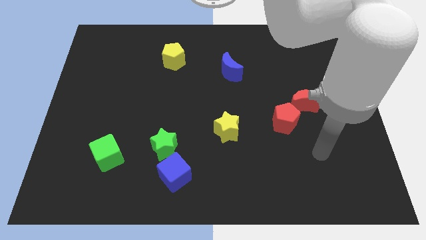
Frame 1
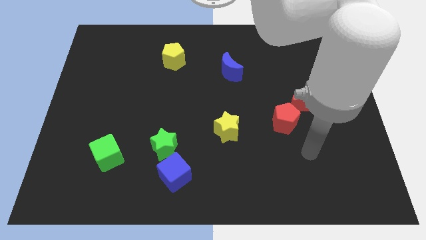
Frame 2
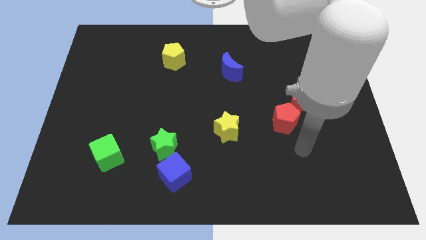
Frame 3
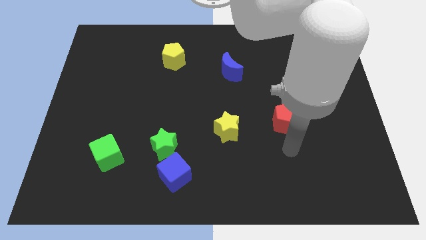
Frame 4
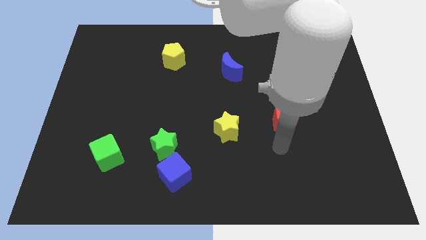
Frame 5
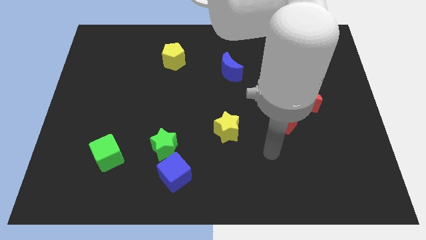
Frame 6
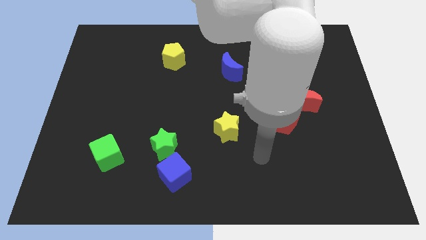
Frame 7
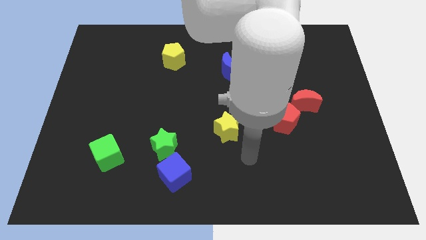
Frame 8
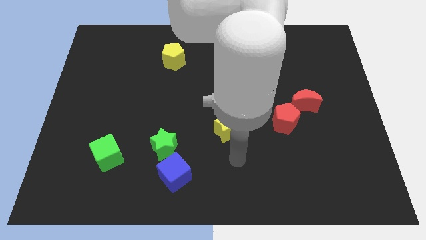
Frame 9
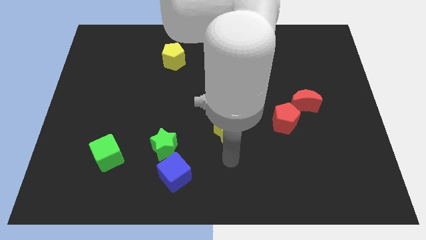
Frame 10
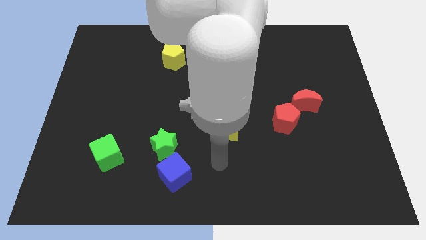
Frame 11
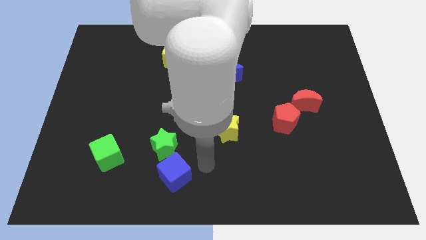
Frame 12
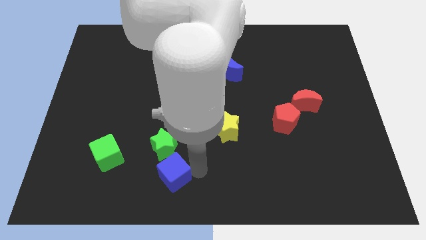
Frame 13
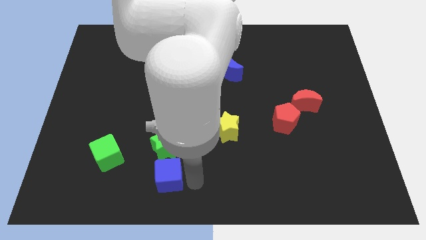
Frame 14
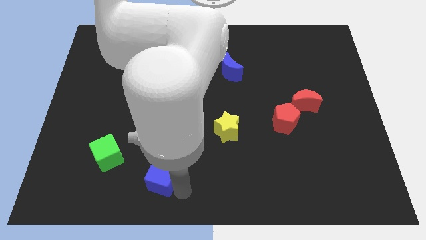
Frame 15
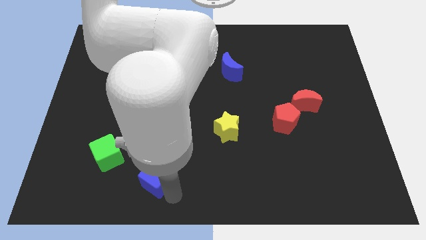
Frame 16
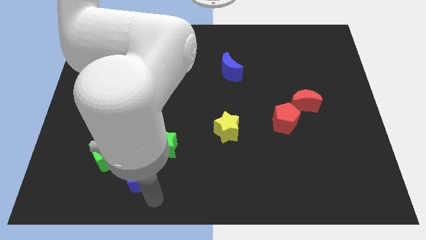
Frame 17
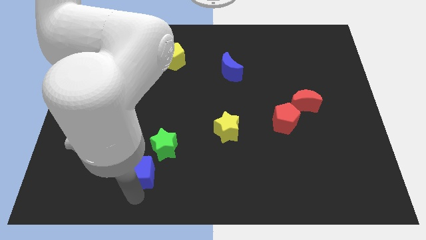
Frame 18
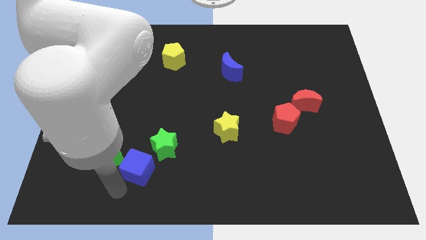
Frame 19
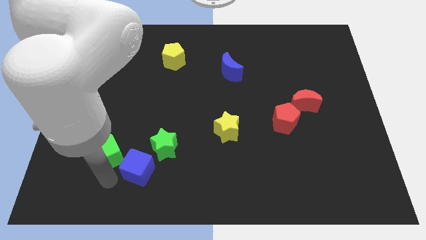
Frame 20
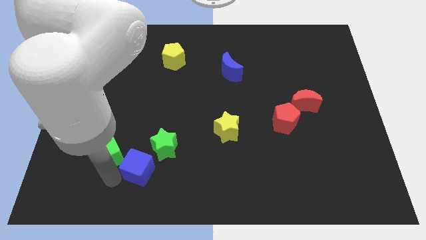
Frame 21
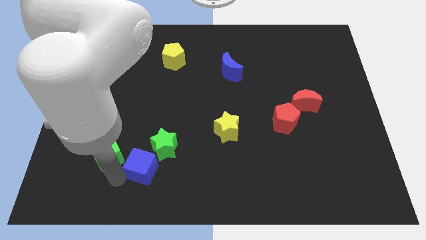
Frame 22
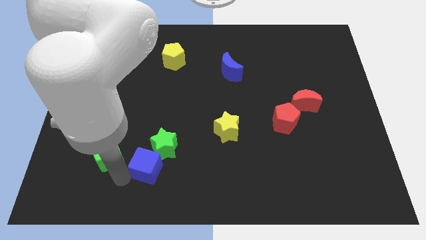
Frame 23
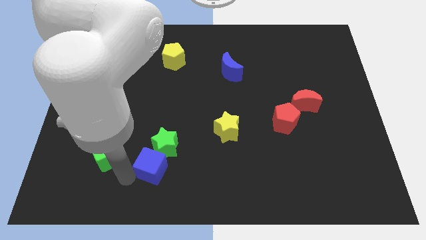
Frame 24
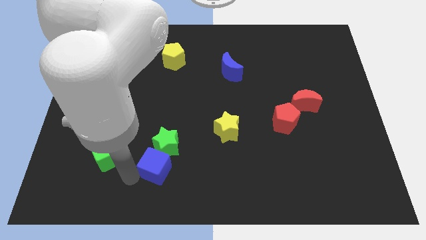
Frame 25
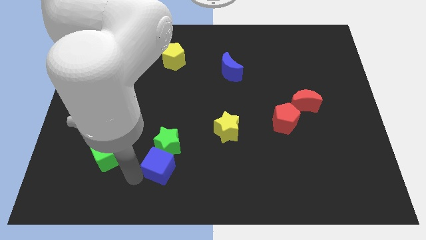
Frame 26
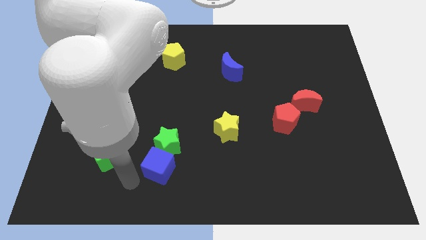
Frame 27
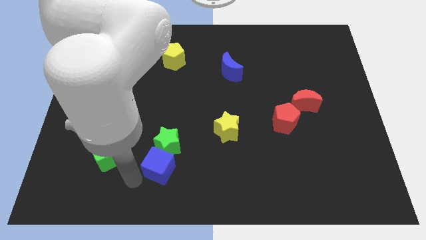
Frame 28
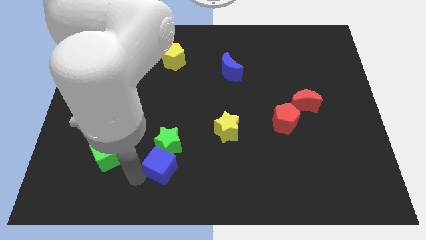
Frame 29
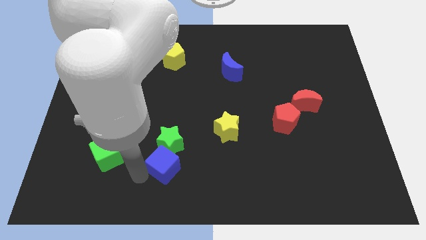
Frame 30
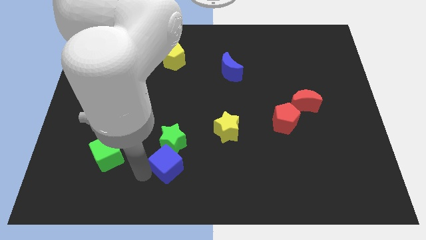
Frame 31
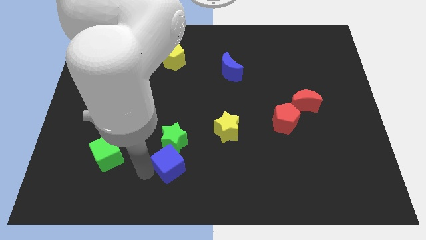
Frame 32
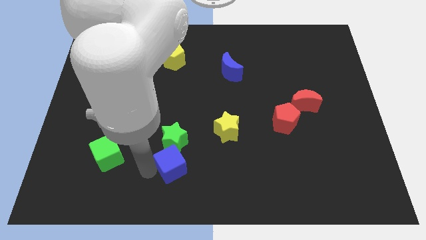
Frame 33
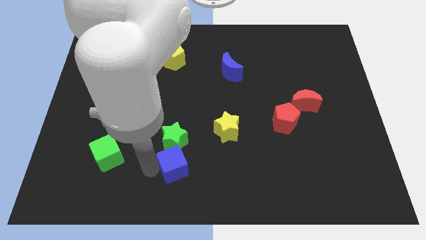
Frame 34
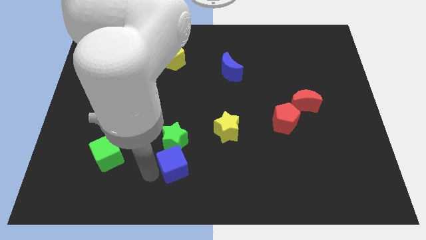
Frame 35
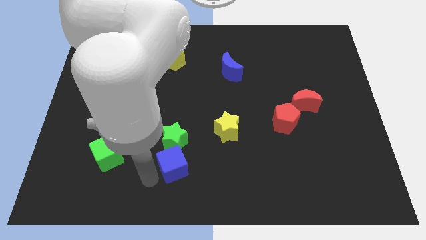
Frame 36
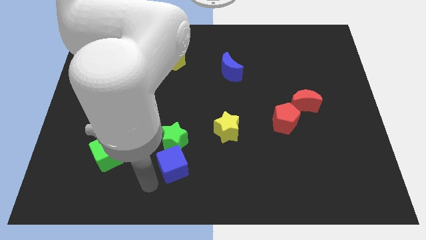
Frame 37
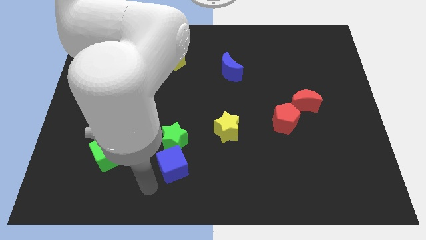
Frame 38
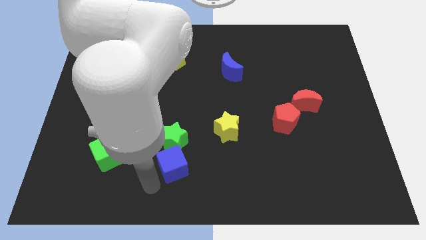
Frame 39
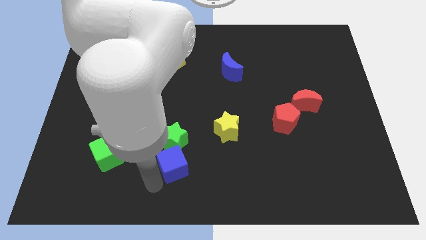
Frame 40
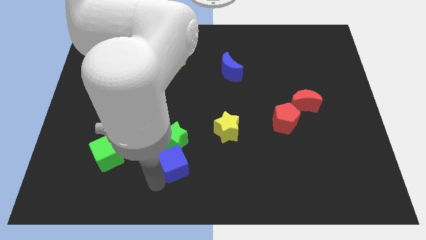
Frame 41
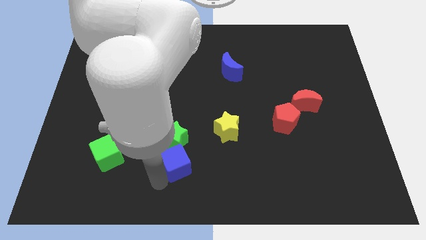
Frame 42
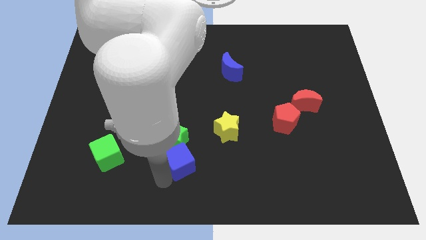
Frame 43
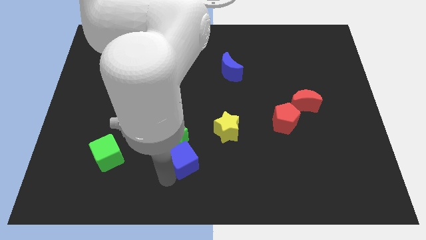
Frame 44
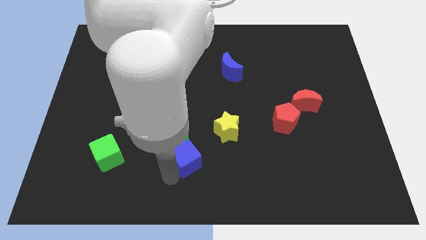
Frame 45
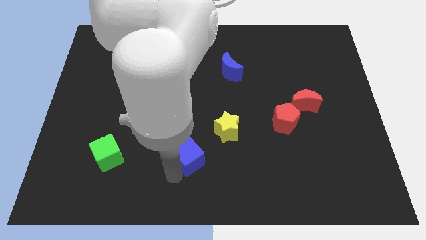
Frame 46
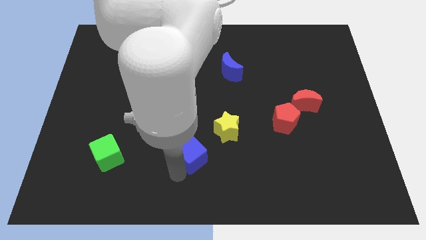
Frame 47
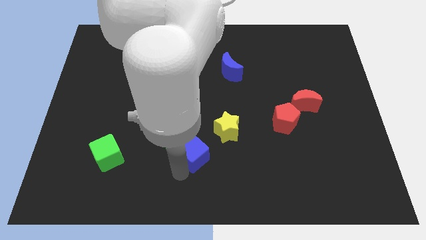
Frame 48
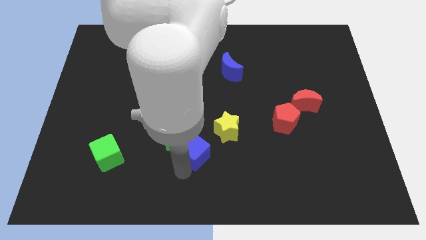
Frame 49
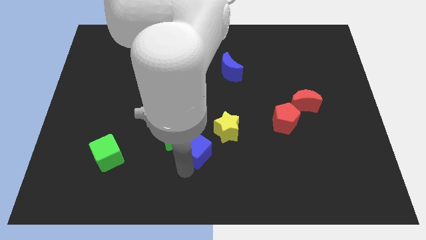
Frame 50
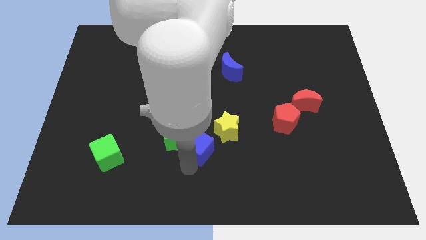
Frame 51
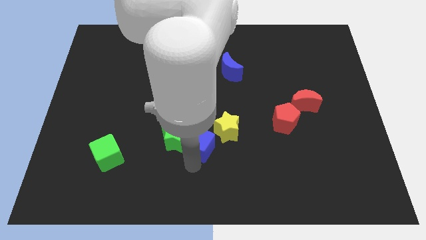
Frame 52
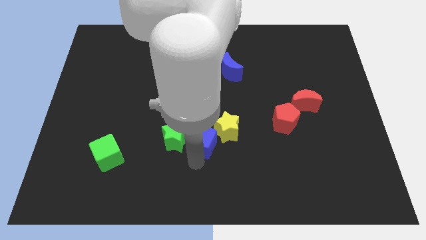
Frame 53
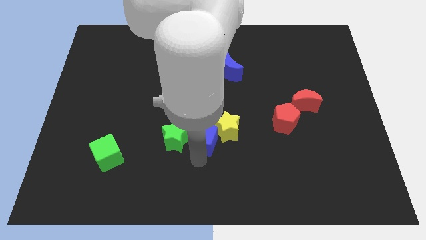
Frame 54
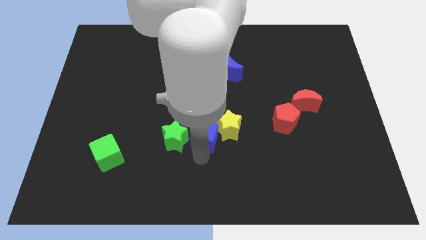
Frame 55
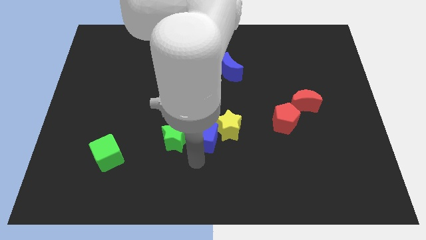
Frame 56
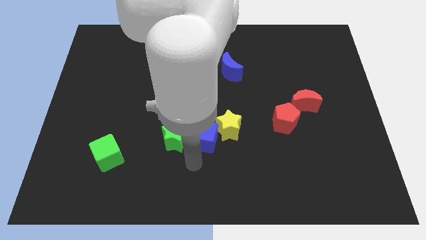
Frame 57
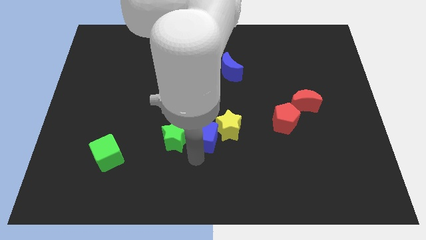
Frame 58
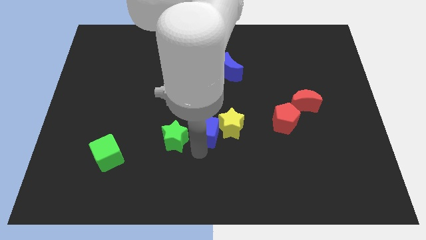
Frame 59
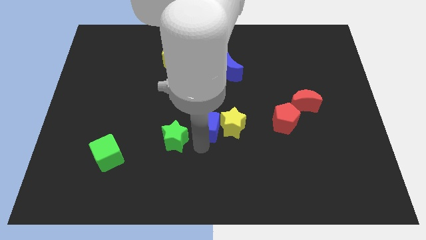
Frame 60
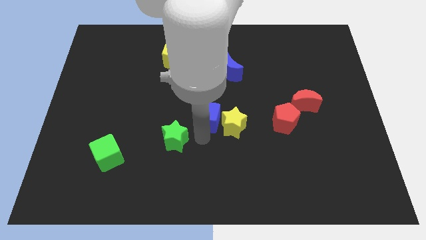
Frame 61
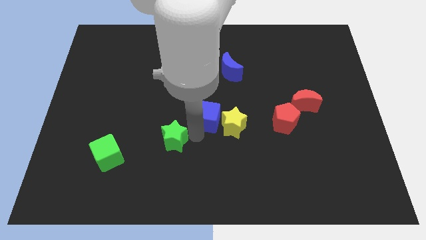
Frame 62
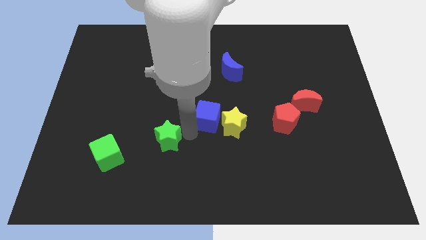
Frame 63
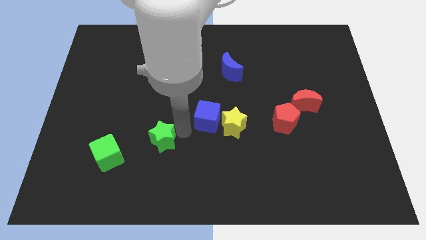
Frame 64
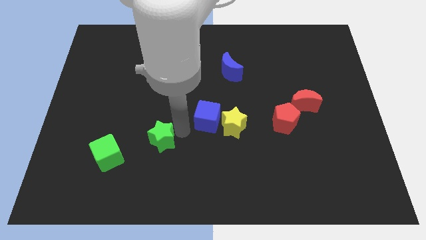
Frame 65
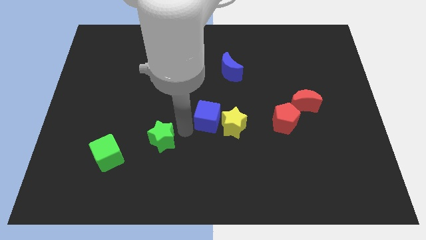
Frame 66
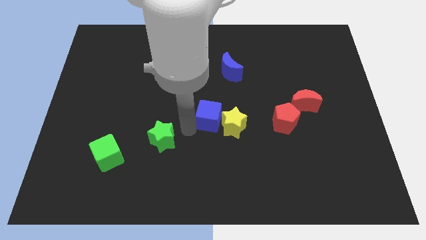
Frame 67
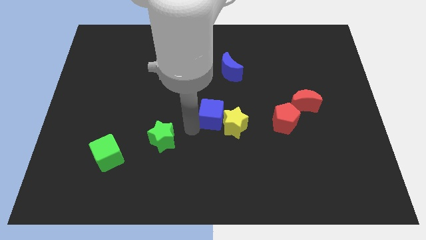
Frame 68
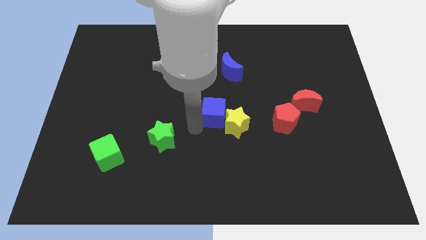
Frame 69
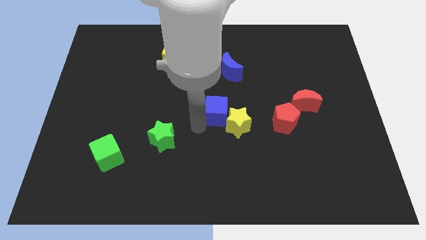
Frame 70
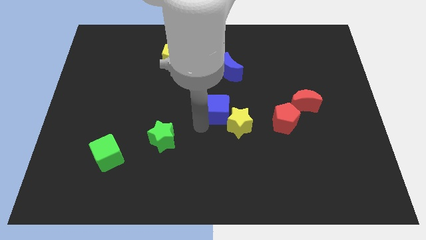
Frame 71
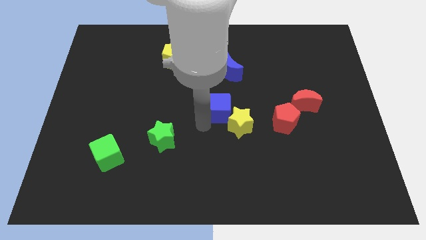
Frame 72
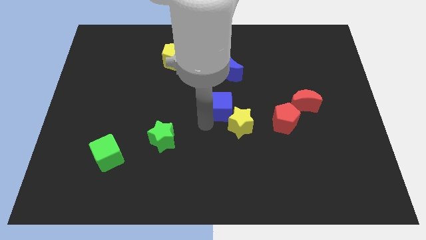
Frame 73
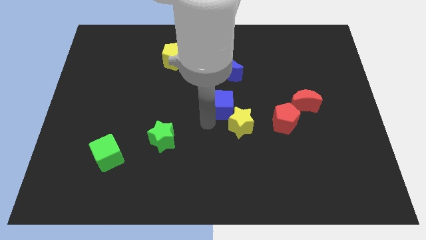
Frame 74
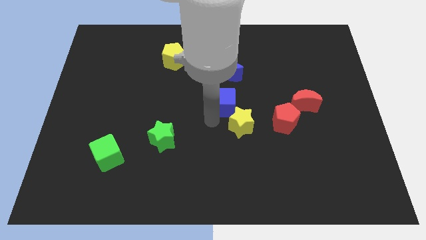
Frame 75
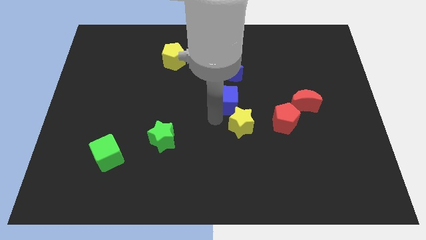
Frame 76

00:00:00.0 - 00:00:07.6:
push the blue cube up and right

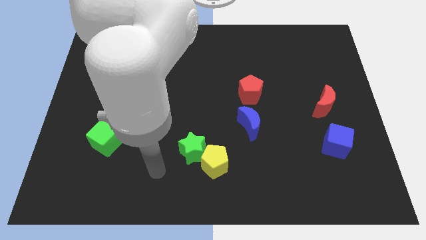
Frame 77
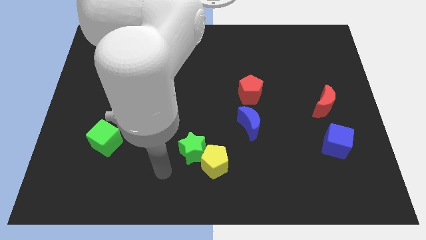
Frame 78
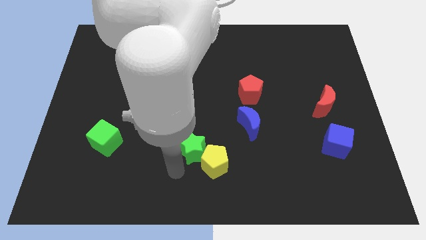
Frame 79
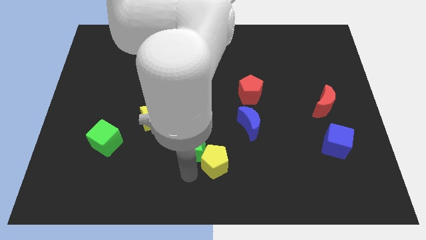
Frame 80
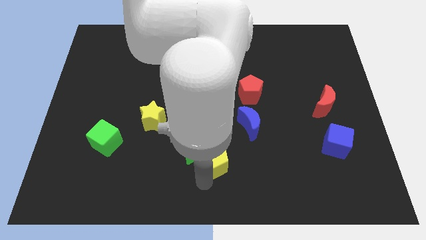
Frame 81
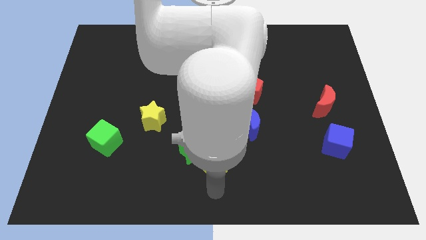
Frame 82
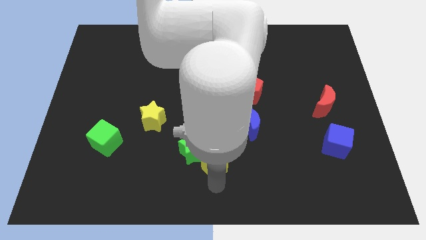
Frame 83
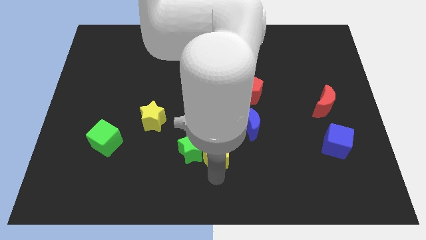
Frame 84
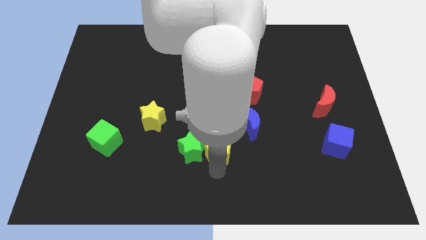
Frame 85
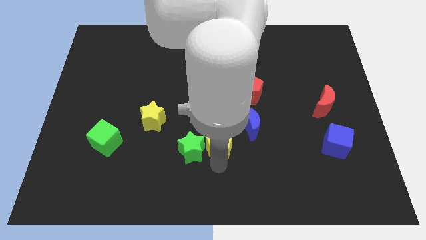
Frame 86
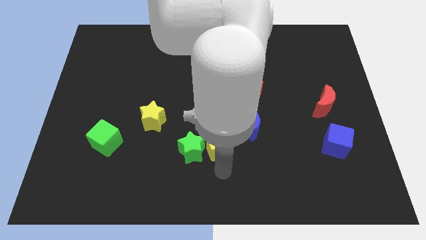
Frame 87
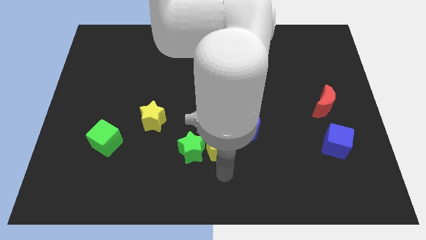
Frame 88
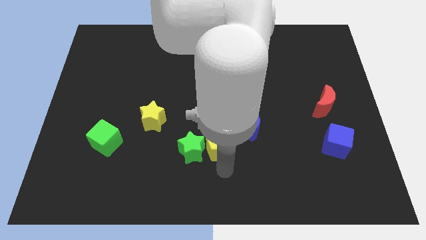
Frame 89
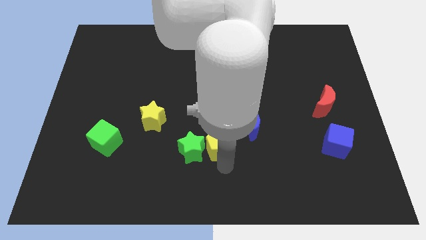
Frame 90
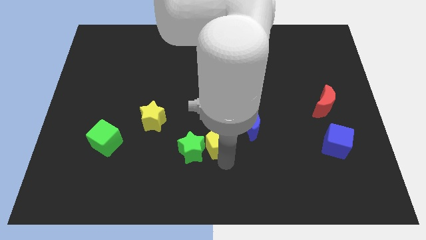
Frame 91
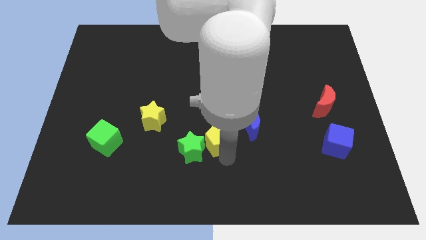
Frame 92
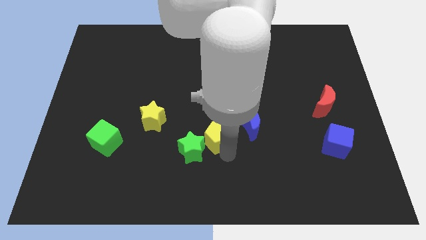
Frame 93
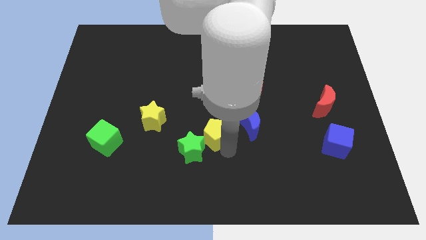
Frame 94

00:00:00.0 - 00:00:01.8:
push the yellow pentagon up slightly
